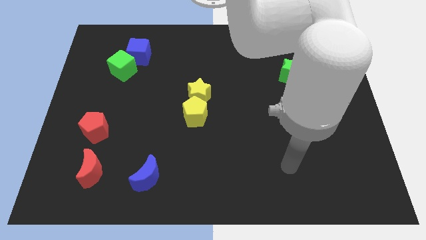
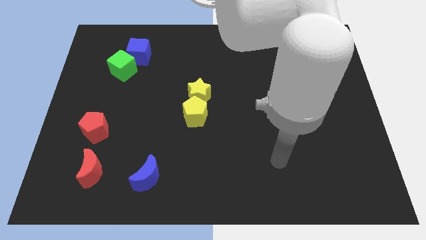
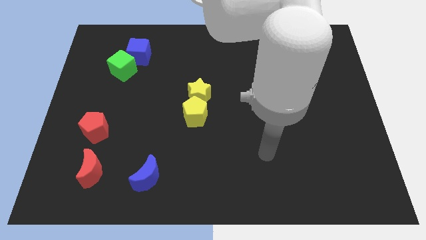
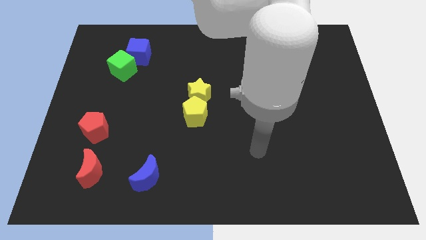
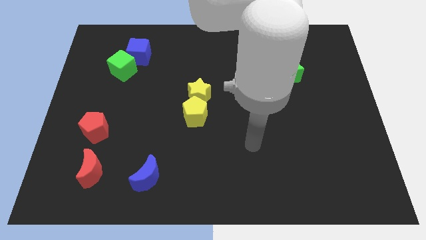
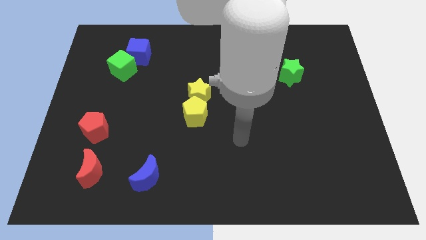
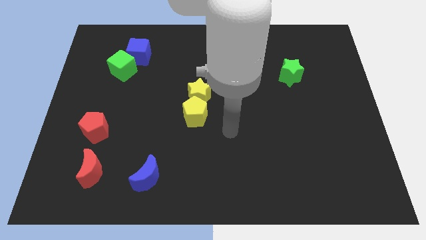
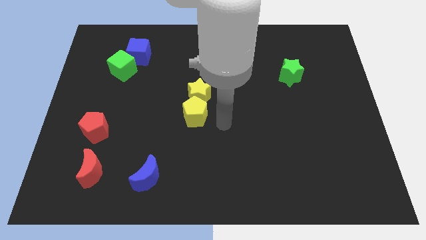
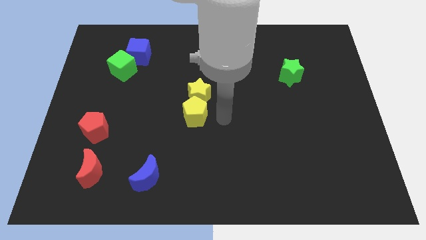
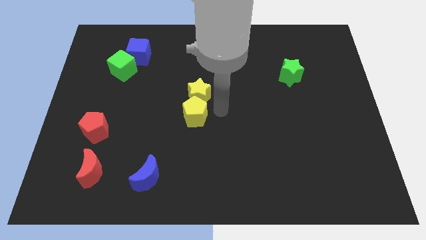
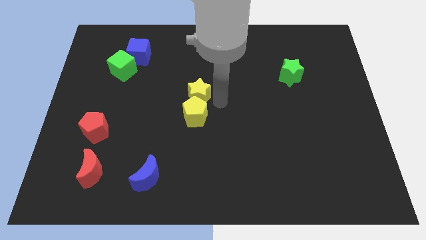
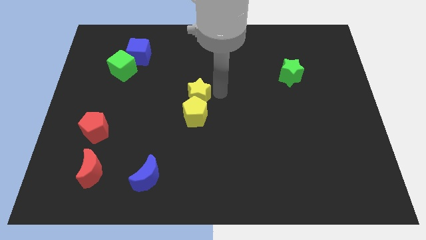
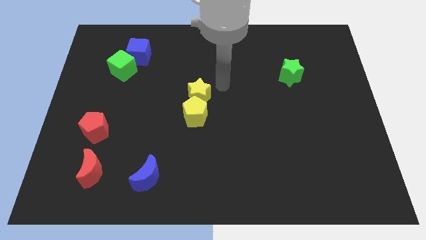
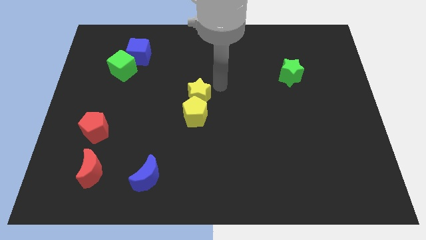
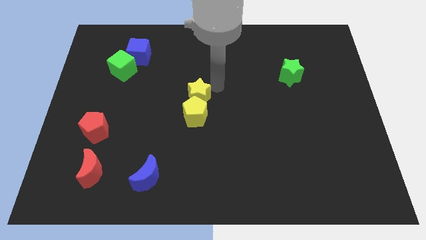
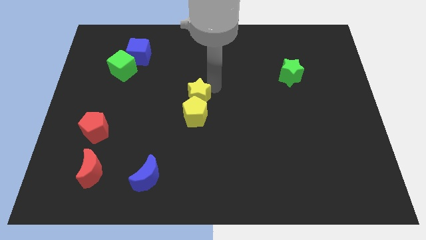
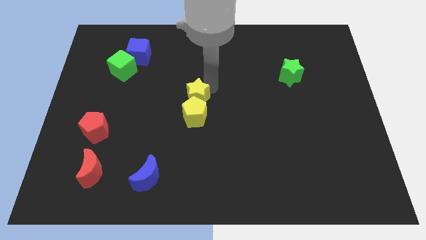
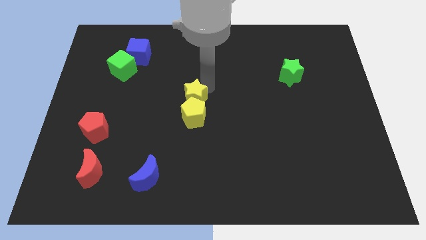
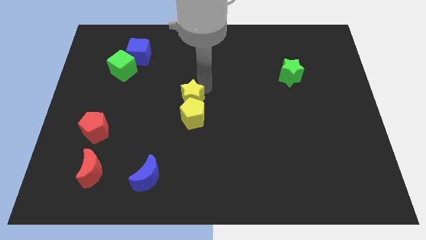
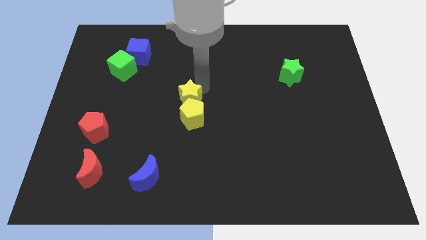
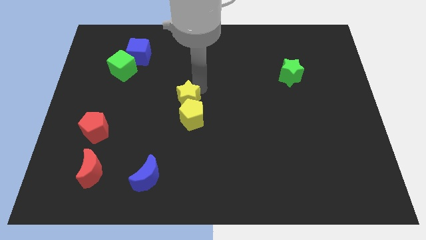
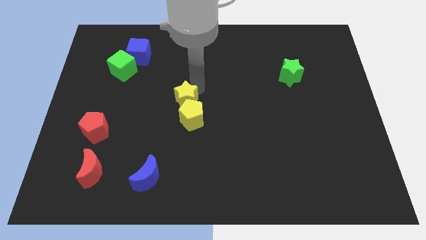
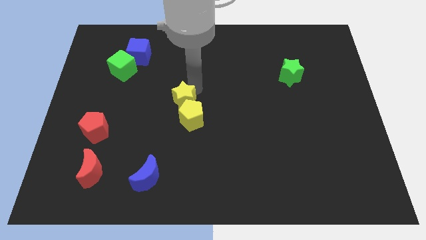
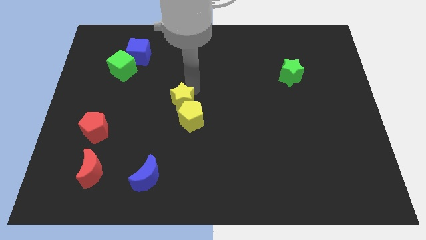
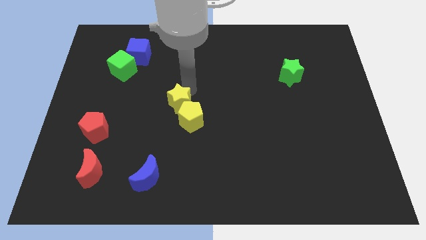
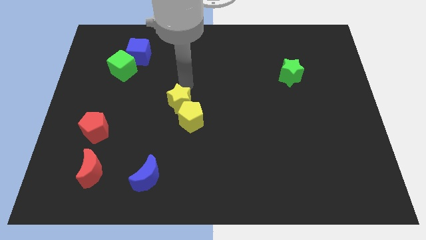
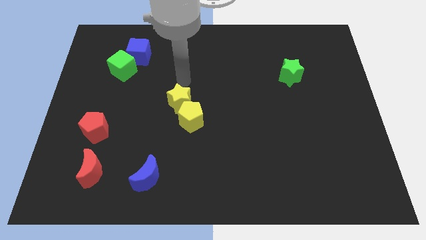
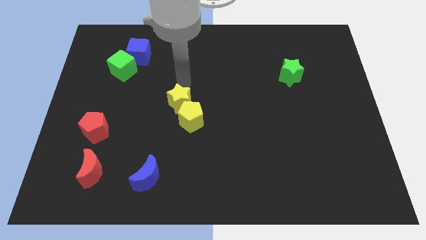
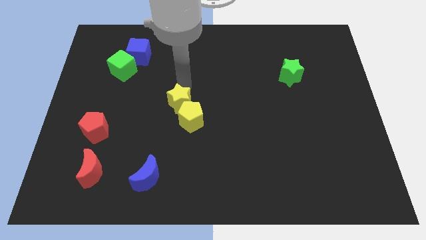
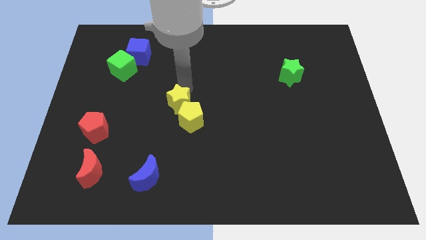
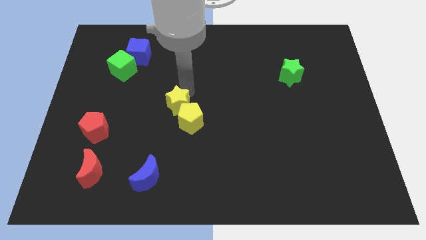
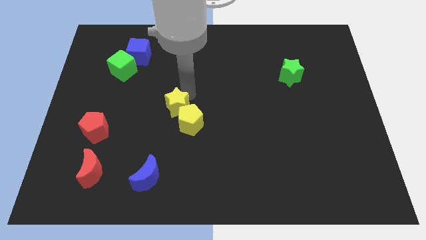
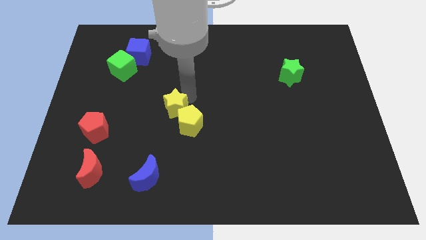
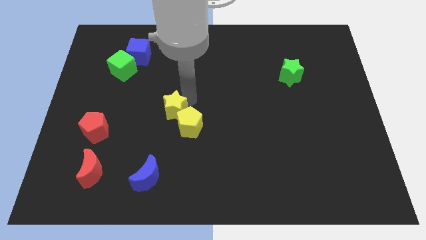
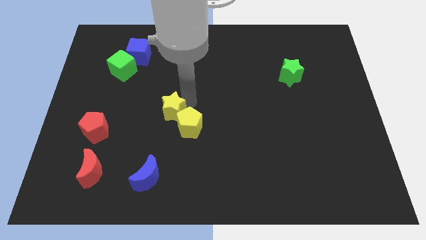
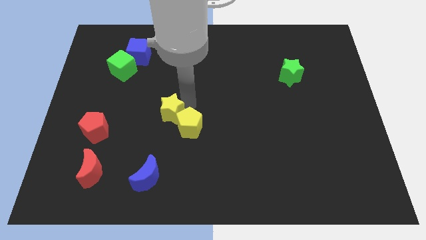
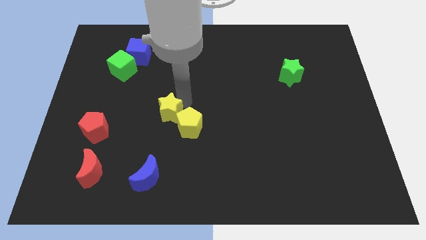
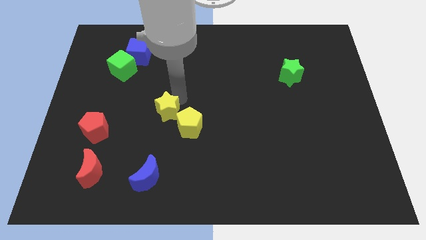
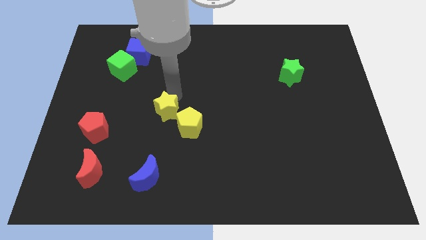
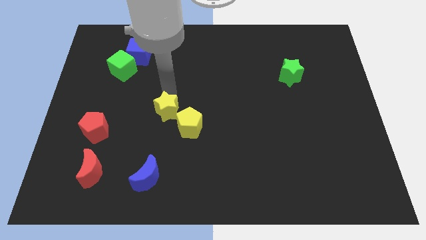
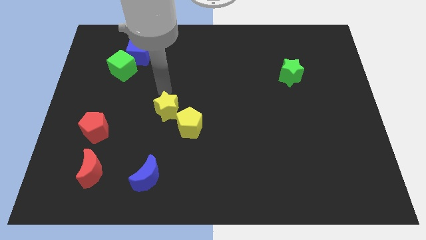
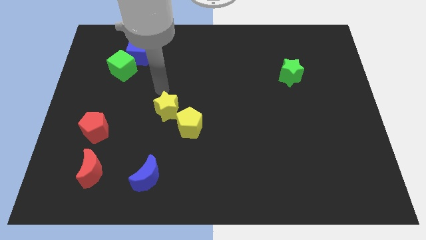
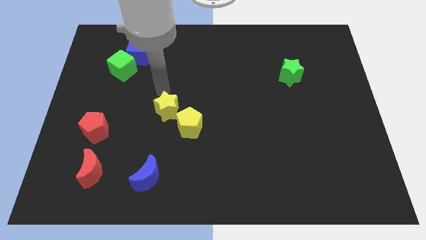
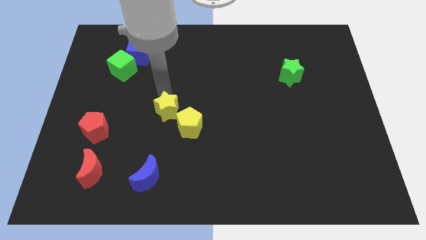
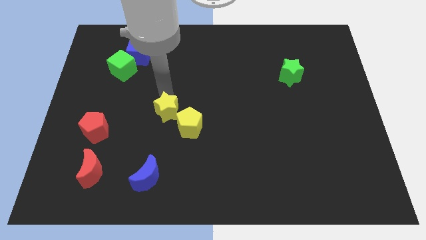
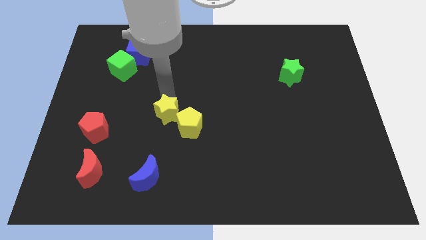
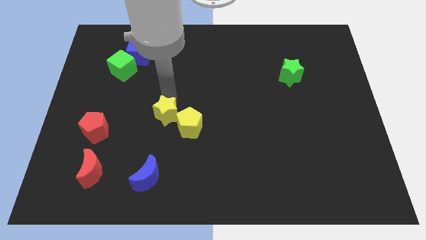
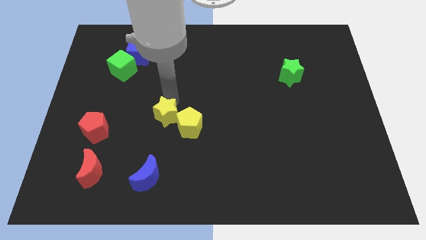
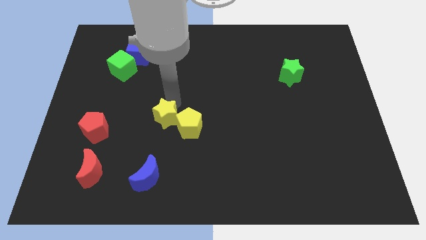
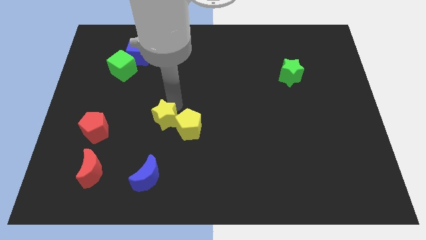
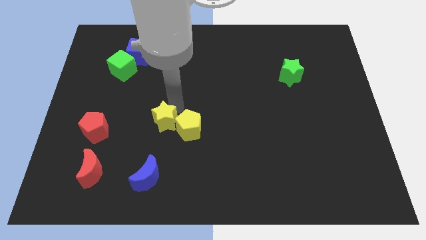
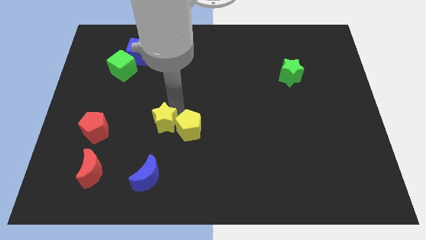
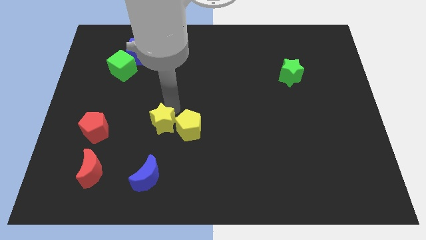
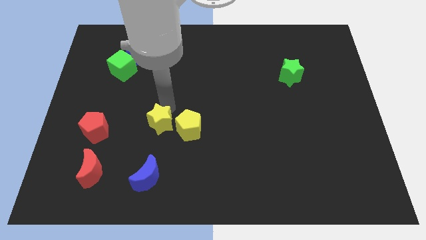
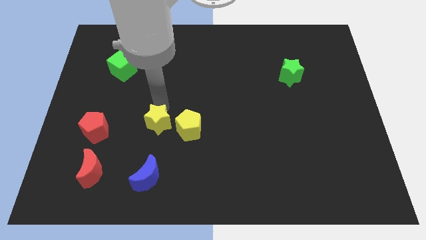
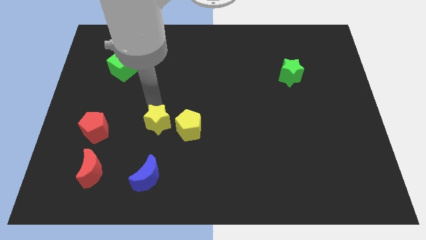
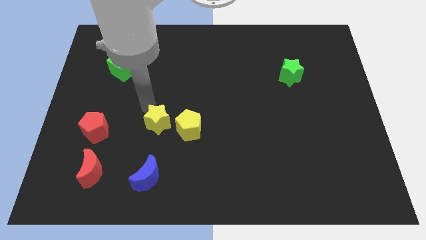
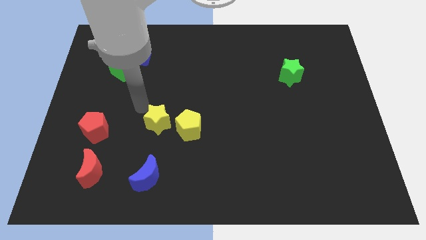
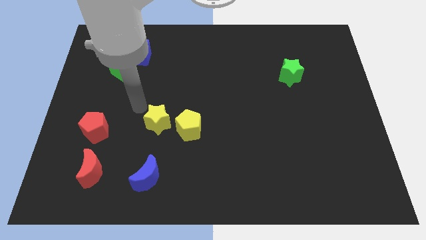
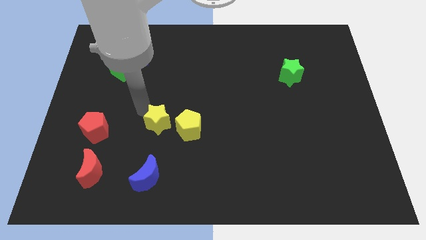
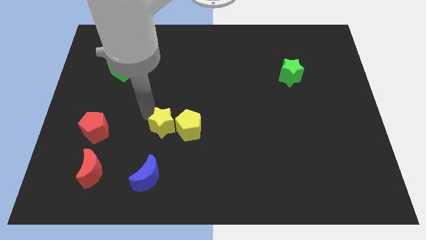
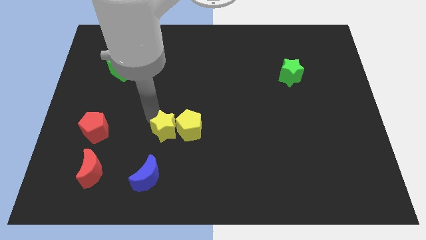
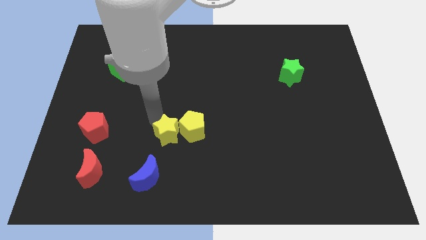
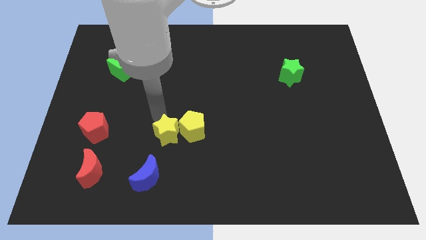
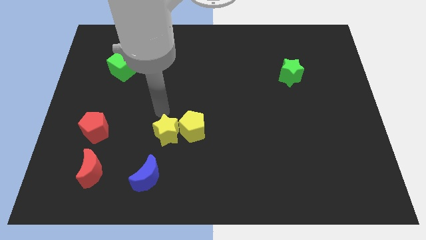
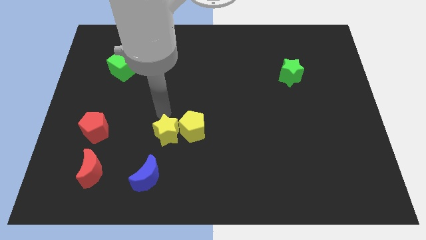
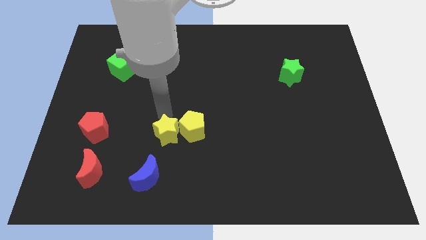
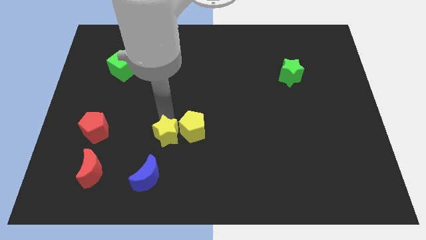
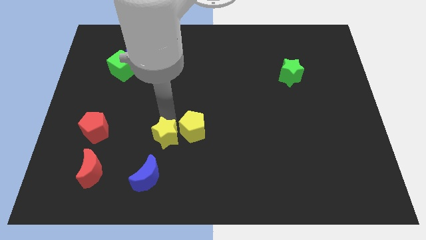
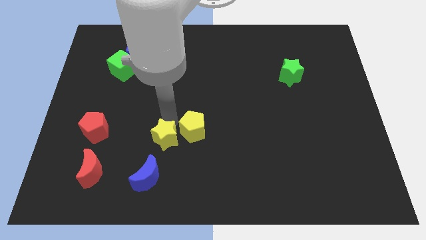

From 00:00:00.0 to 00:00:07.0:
push the yellow star to the top right of the blue moon
